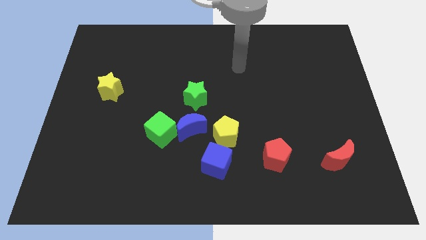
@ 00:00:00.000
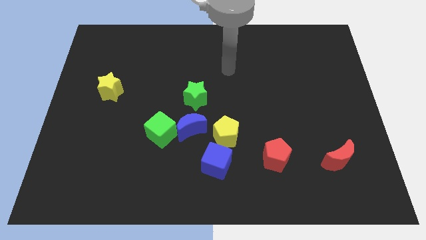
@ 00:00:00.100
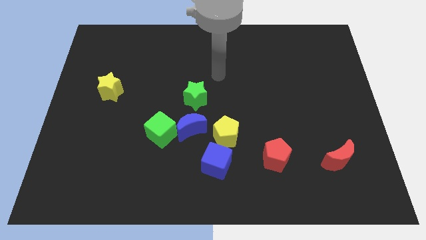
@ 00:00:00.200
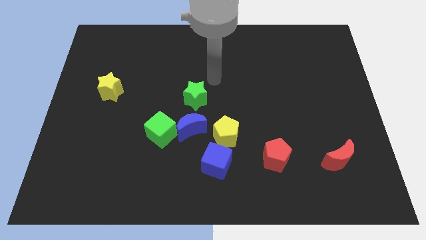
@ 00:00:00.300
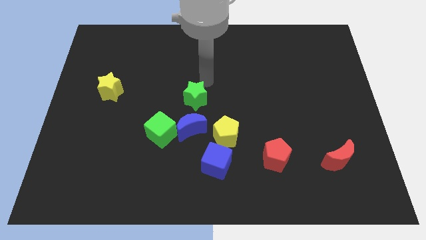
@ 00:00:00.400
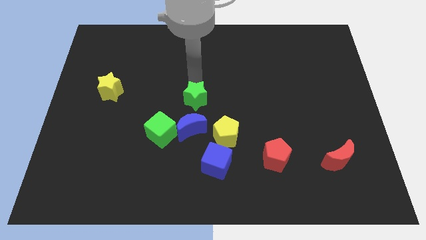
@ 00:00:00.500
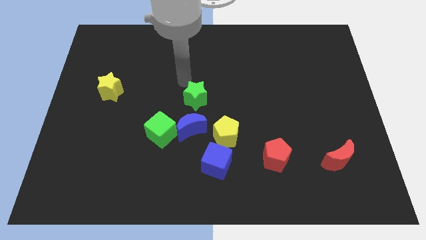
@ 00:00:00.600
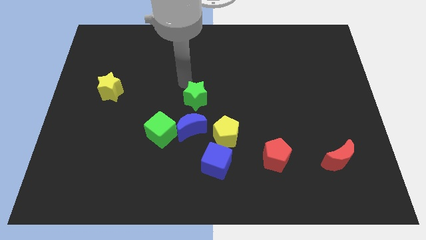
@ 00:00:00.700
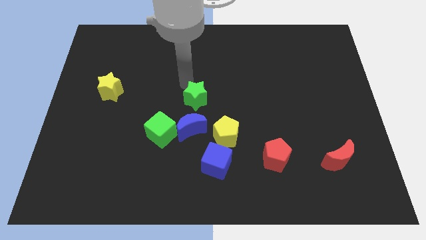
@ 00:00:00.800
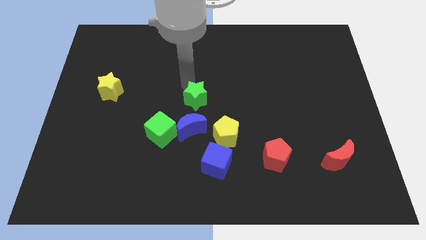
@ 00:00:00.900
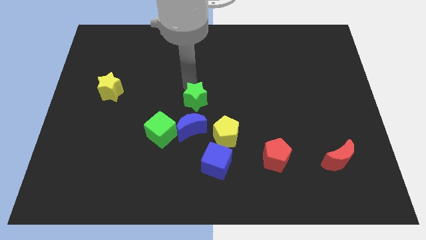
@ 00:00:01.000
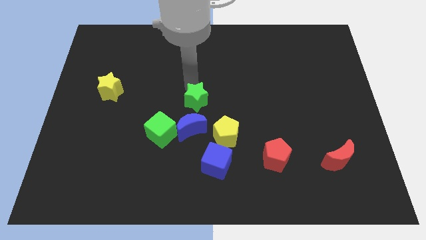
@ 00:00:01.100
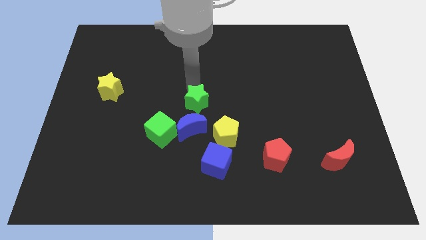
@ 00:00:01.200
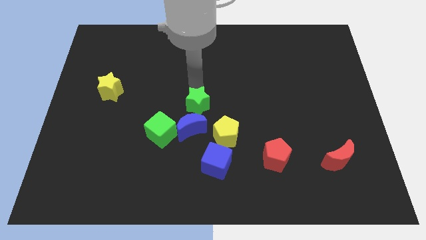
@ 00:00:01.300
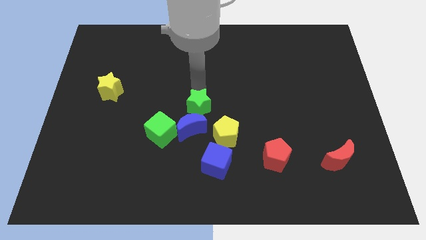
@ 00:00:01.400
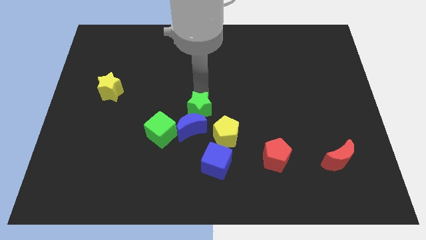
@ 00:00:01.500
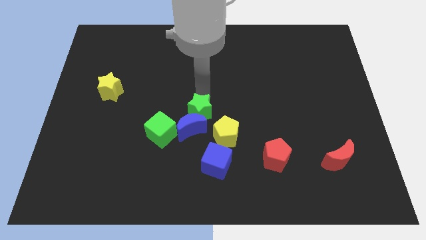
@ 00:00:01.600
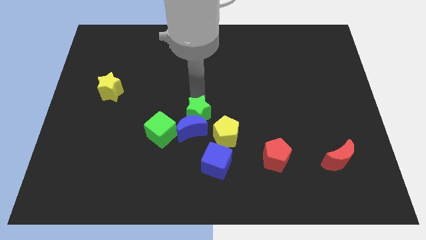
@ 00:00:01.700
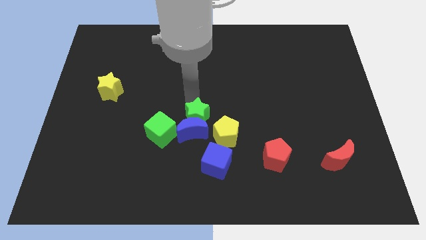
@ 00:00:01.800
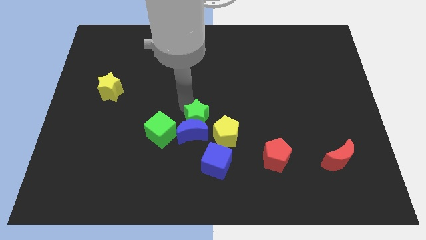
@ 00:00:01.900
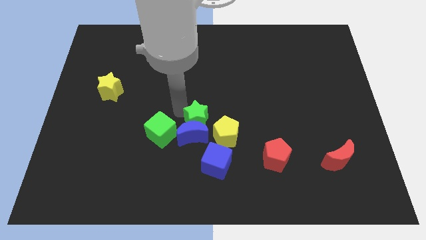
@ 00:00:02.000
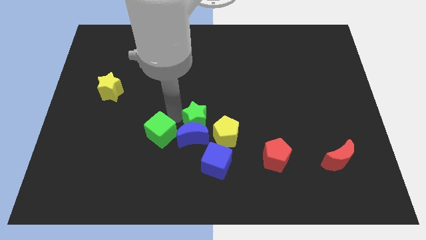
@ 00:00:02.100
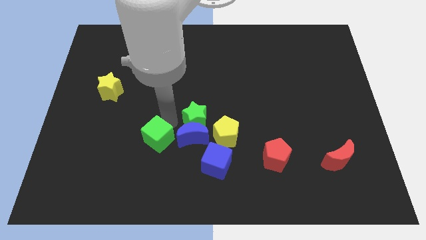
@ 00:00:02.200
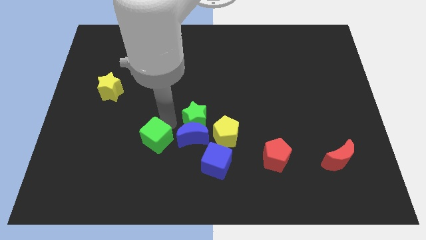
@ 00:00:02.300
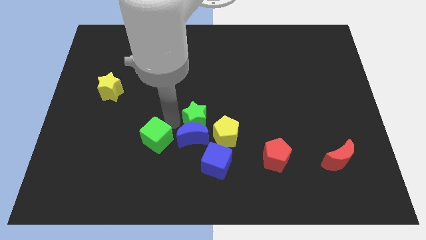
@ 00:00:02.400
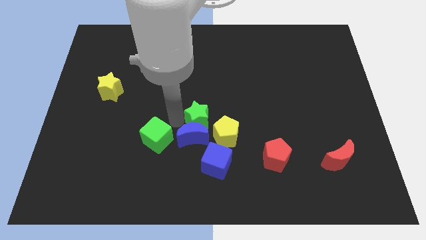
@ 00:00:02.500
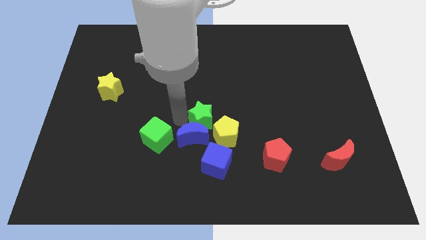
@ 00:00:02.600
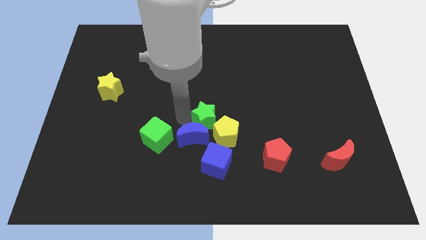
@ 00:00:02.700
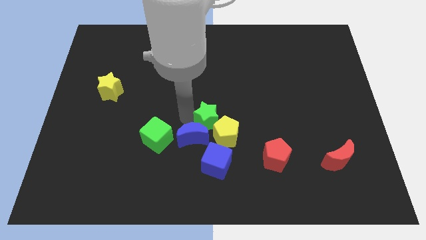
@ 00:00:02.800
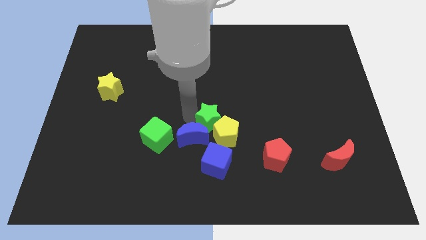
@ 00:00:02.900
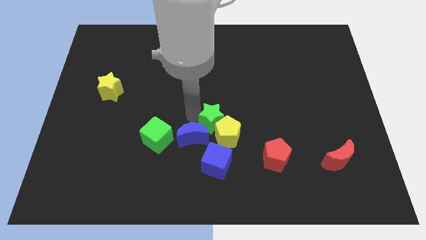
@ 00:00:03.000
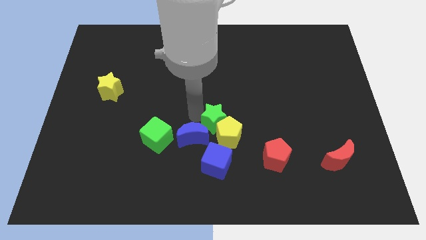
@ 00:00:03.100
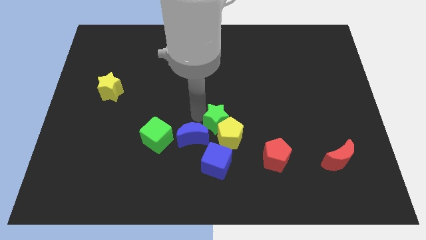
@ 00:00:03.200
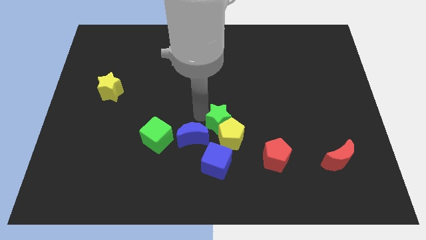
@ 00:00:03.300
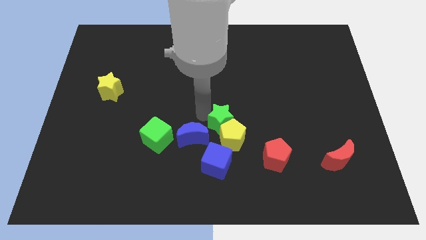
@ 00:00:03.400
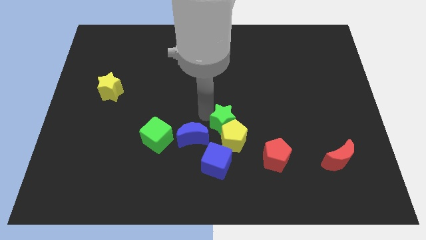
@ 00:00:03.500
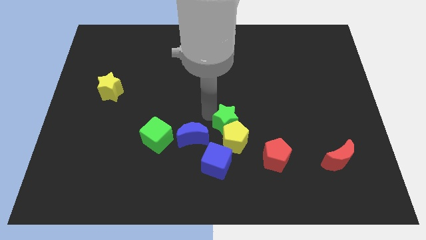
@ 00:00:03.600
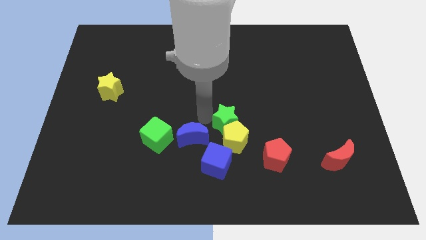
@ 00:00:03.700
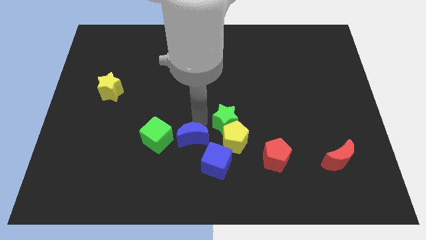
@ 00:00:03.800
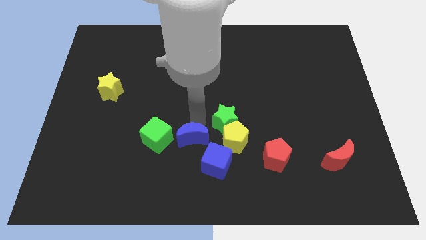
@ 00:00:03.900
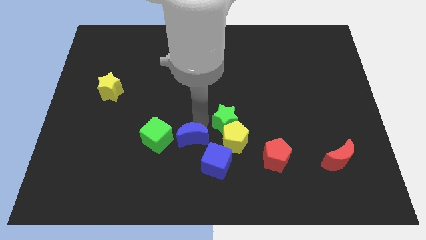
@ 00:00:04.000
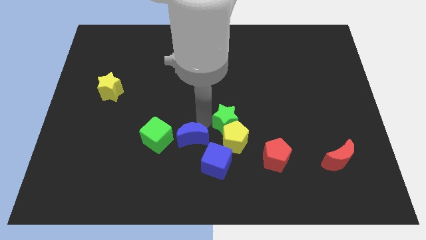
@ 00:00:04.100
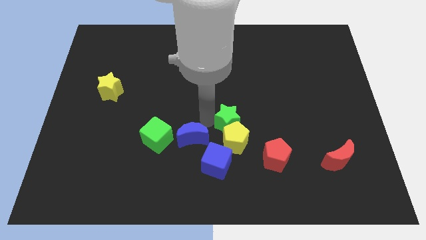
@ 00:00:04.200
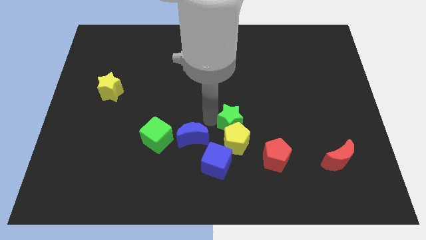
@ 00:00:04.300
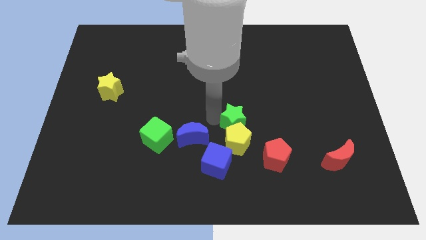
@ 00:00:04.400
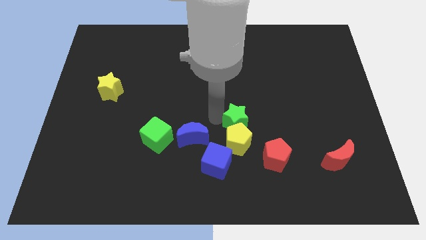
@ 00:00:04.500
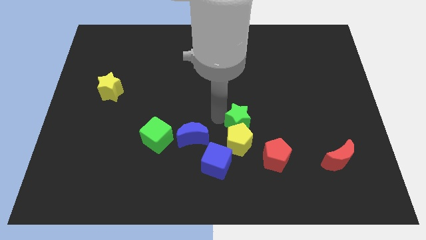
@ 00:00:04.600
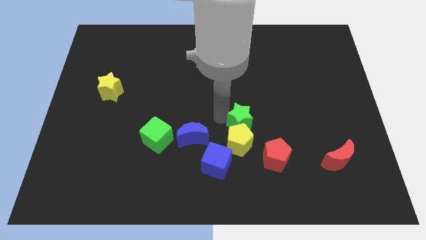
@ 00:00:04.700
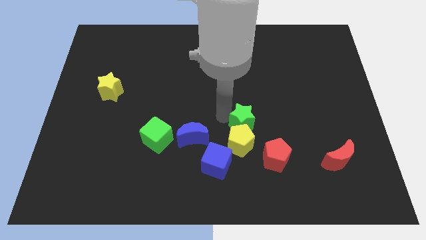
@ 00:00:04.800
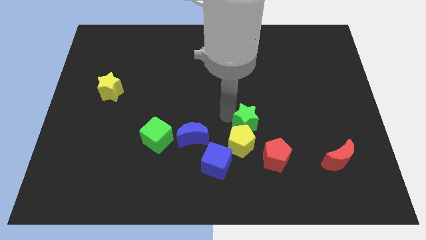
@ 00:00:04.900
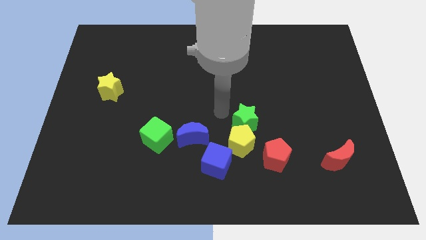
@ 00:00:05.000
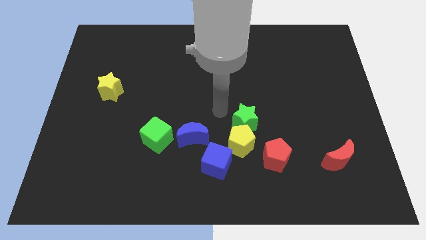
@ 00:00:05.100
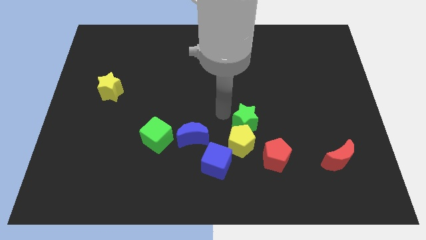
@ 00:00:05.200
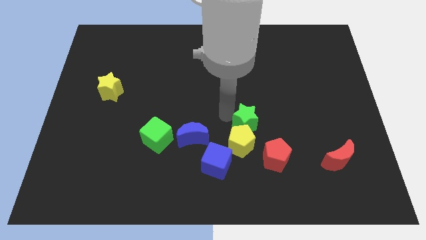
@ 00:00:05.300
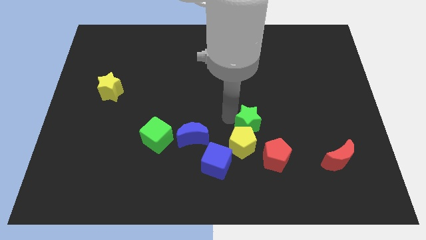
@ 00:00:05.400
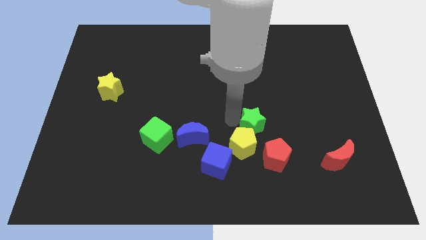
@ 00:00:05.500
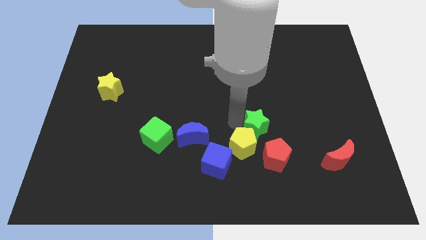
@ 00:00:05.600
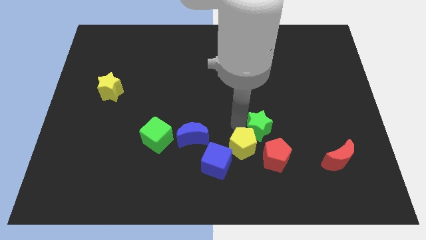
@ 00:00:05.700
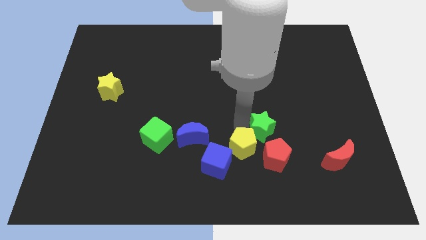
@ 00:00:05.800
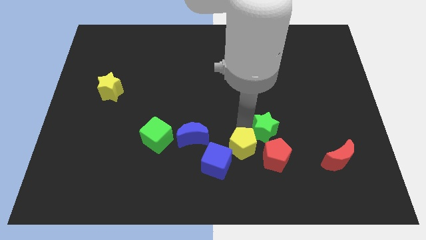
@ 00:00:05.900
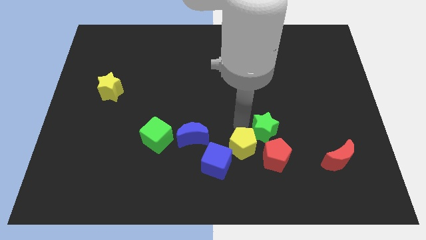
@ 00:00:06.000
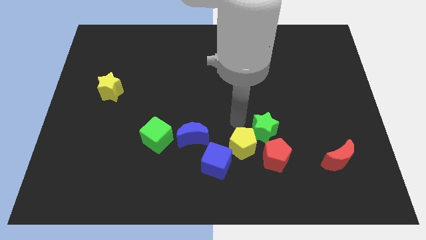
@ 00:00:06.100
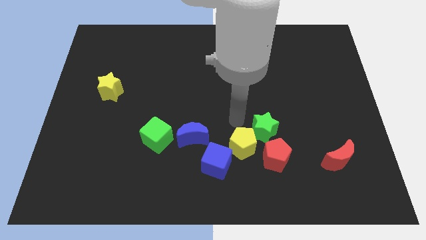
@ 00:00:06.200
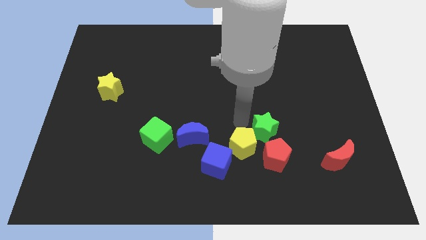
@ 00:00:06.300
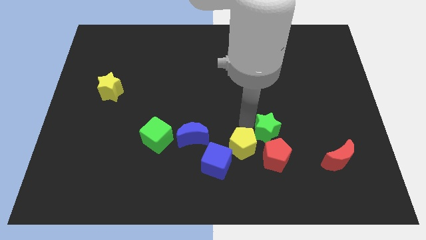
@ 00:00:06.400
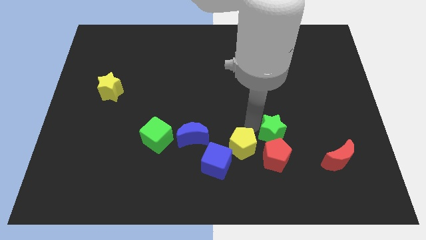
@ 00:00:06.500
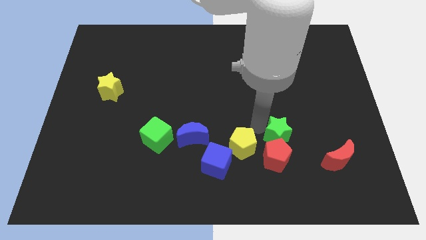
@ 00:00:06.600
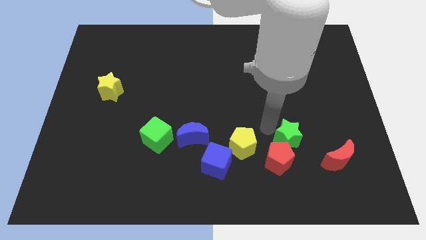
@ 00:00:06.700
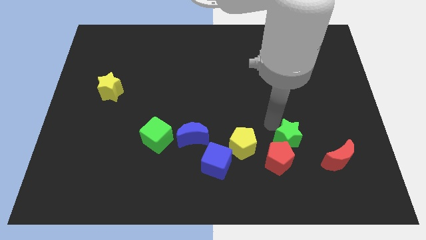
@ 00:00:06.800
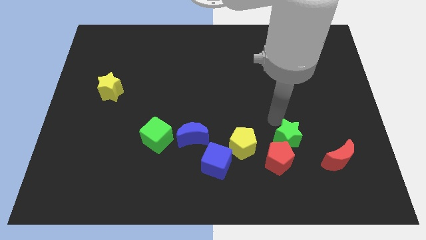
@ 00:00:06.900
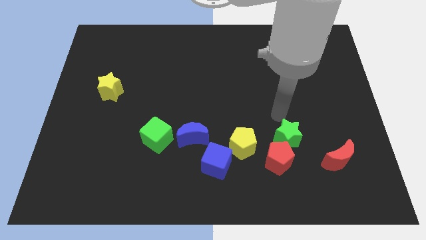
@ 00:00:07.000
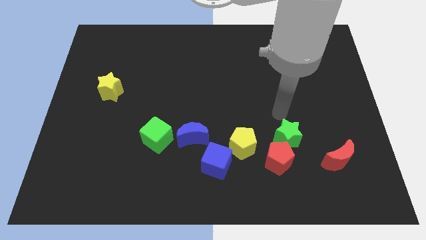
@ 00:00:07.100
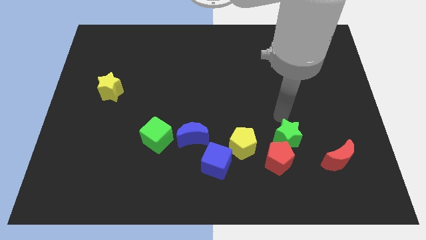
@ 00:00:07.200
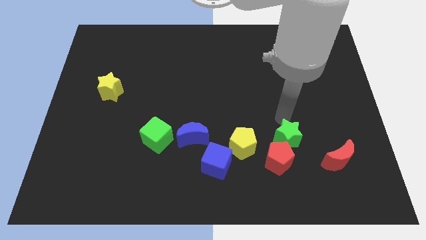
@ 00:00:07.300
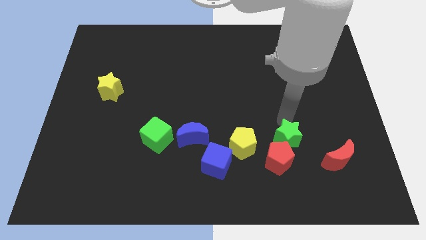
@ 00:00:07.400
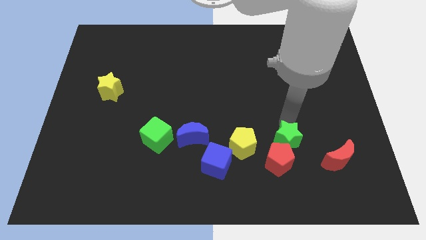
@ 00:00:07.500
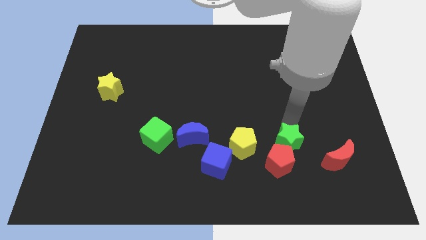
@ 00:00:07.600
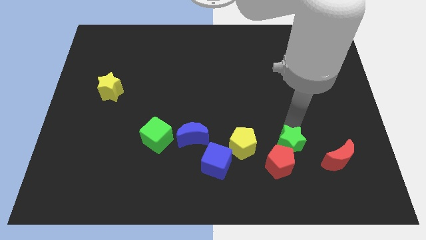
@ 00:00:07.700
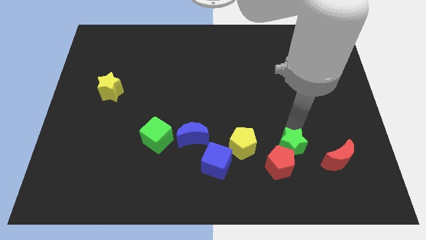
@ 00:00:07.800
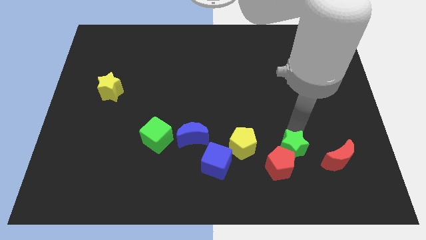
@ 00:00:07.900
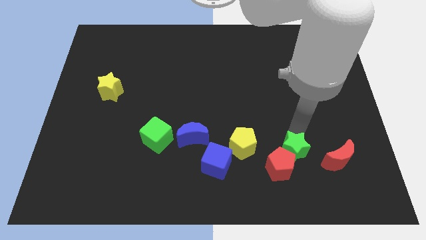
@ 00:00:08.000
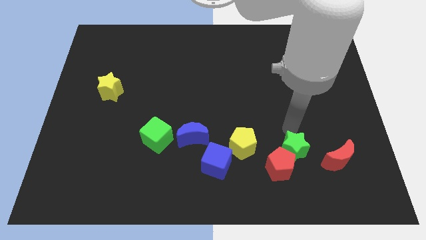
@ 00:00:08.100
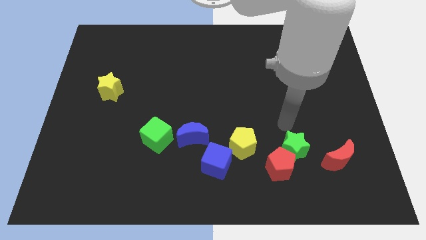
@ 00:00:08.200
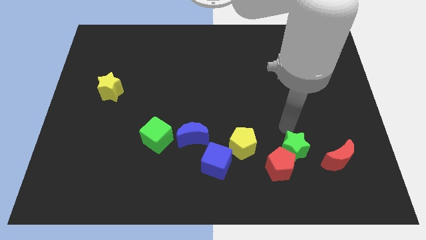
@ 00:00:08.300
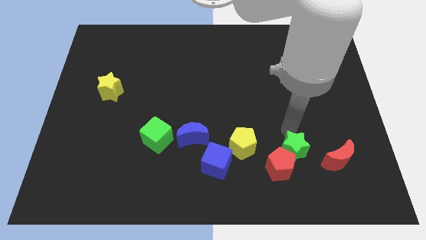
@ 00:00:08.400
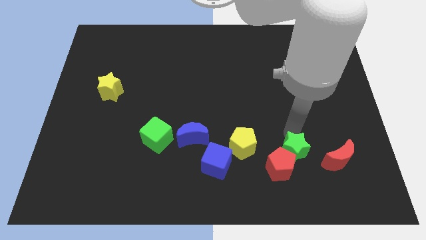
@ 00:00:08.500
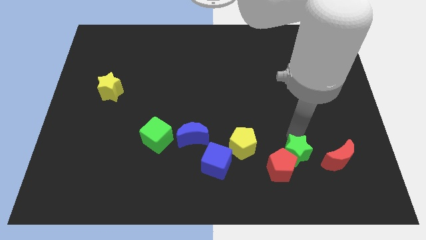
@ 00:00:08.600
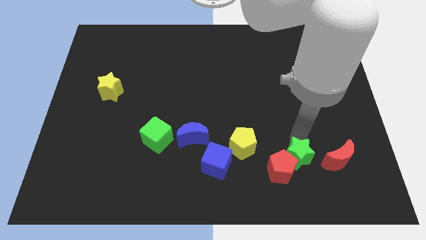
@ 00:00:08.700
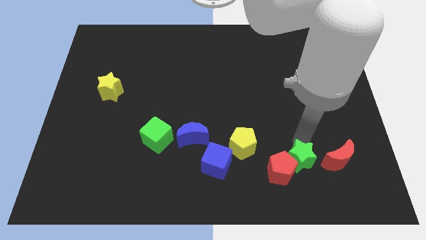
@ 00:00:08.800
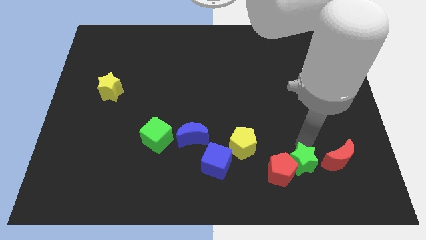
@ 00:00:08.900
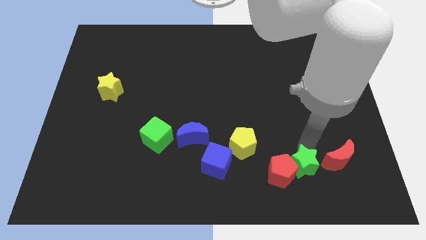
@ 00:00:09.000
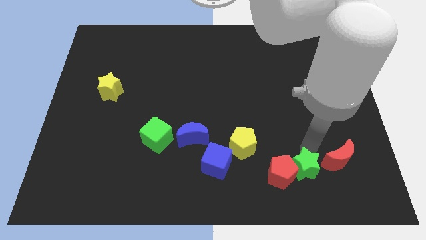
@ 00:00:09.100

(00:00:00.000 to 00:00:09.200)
push the green star to the bottom right side of the red pentagon
